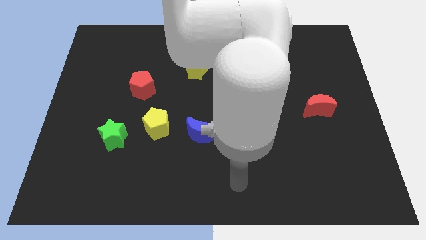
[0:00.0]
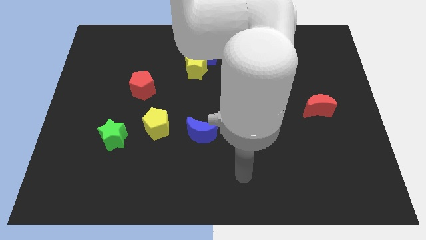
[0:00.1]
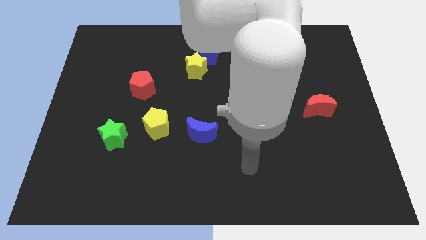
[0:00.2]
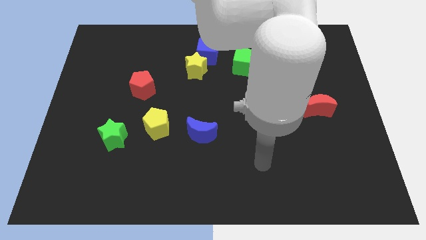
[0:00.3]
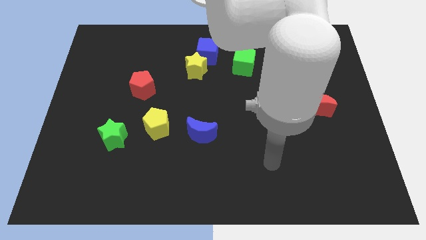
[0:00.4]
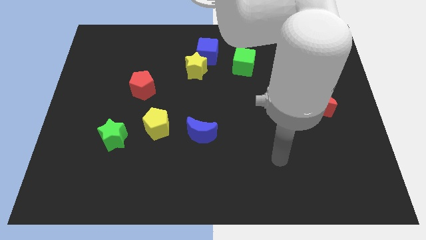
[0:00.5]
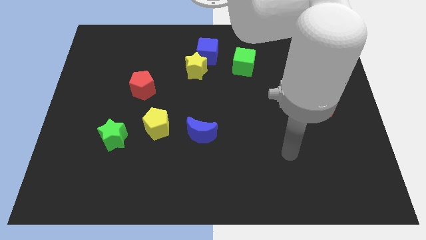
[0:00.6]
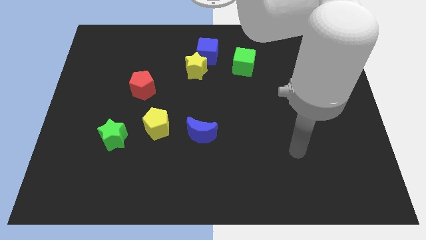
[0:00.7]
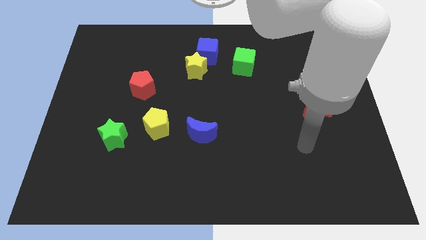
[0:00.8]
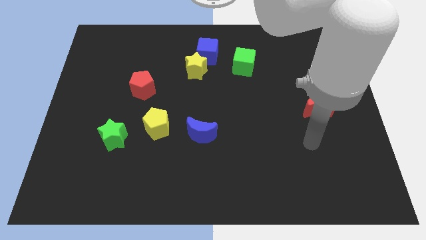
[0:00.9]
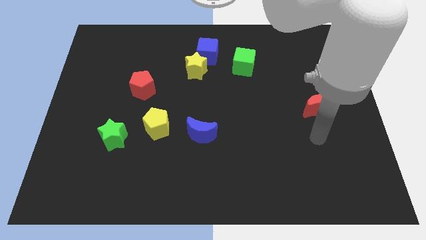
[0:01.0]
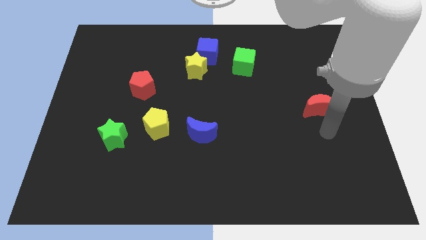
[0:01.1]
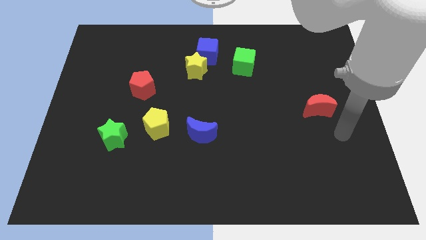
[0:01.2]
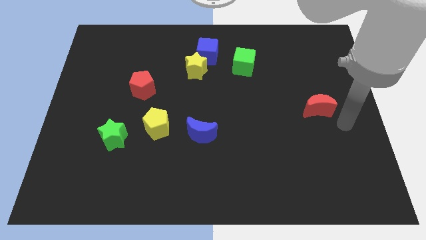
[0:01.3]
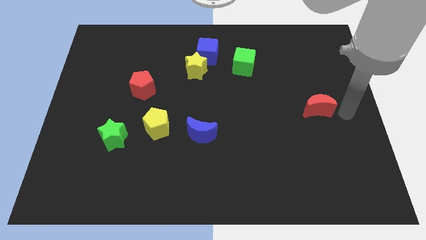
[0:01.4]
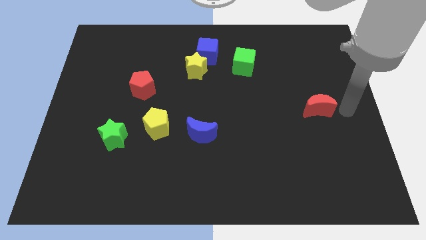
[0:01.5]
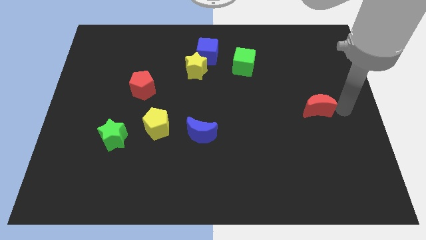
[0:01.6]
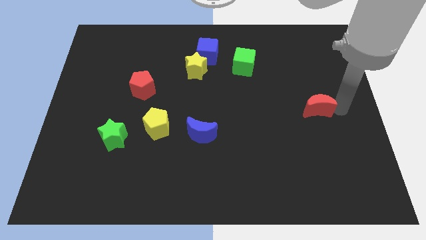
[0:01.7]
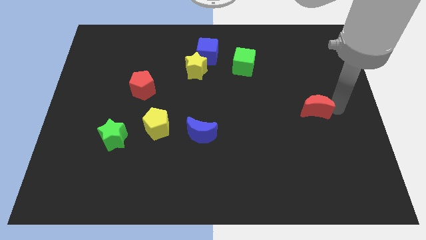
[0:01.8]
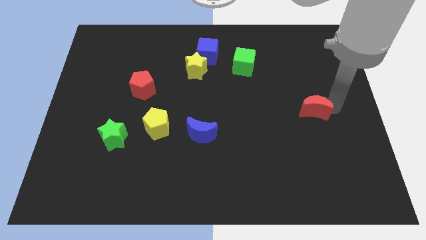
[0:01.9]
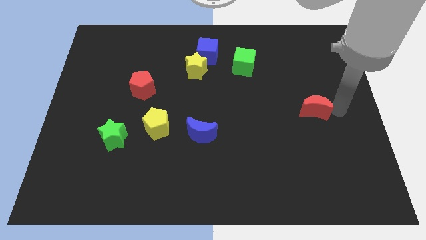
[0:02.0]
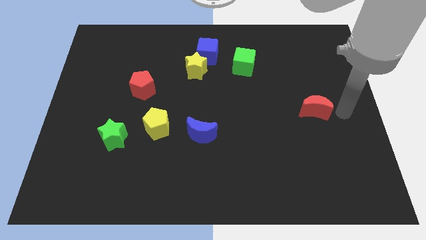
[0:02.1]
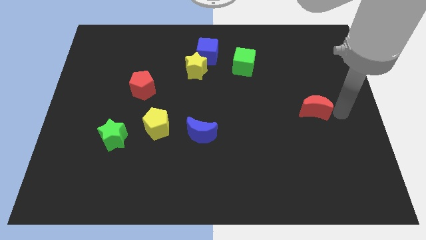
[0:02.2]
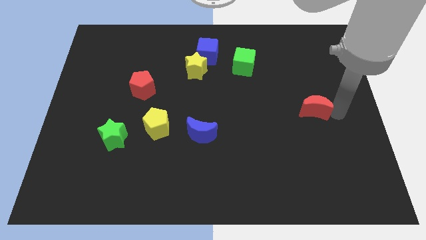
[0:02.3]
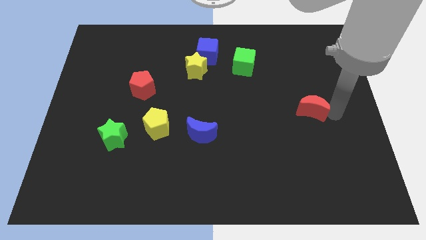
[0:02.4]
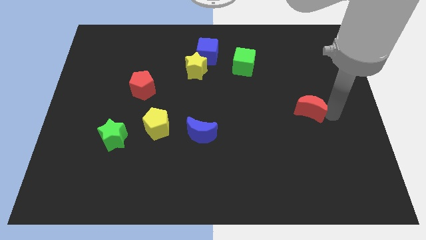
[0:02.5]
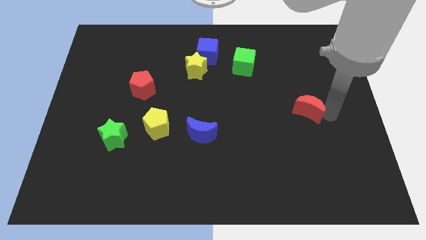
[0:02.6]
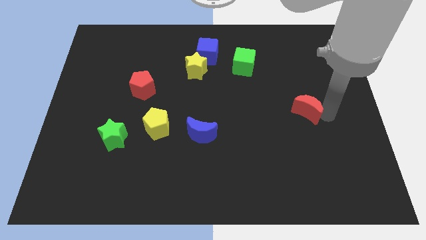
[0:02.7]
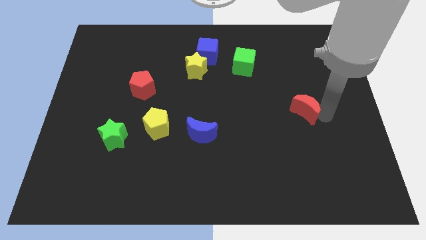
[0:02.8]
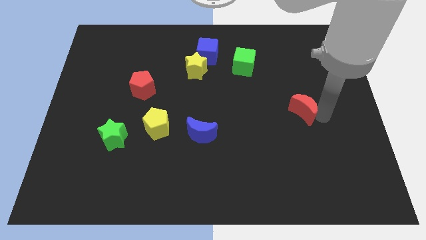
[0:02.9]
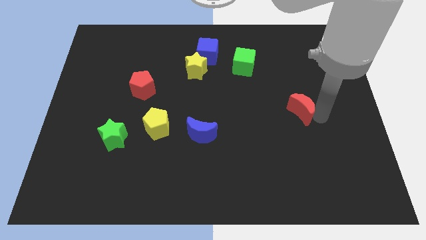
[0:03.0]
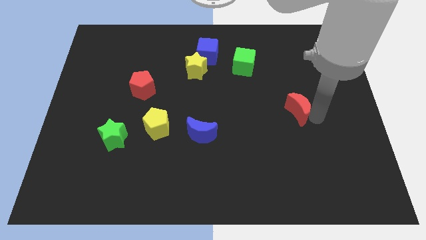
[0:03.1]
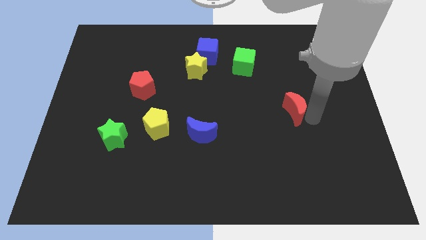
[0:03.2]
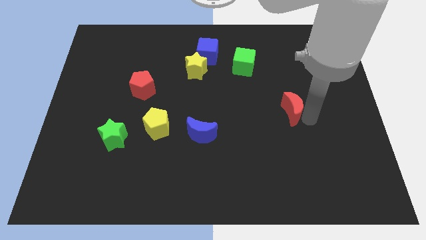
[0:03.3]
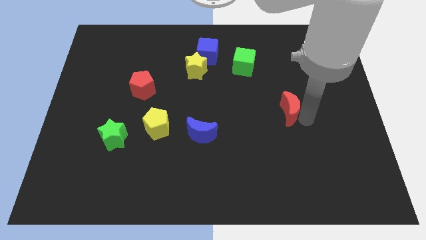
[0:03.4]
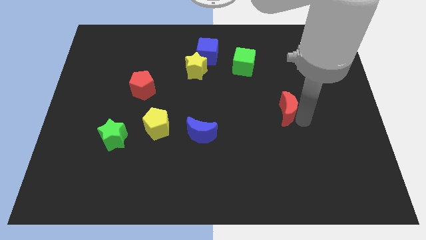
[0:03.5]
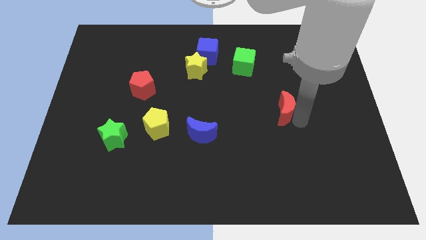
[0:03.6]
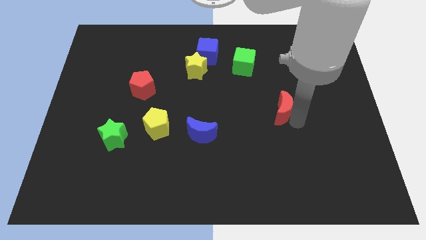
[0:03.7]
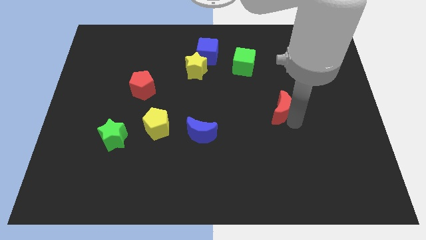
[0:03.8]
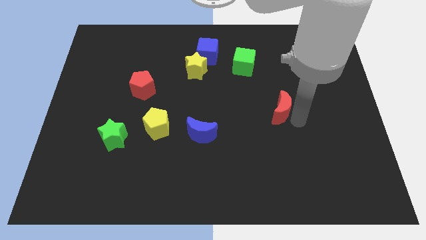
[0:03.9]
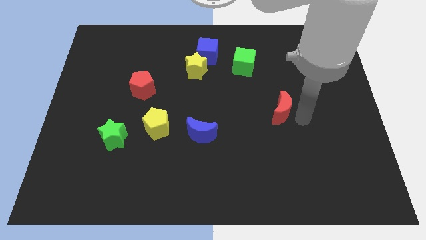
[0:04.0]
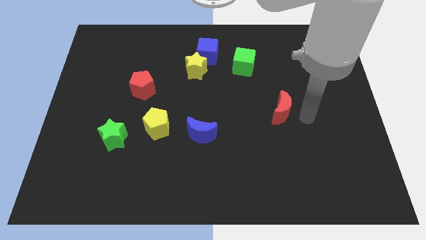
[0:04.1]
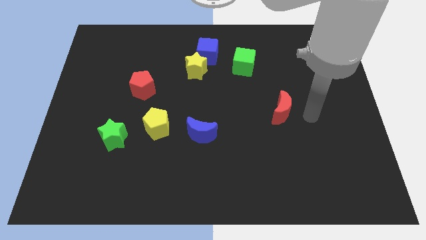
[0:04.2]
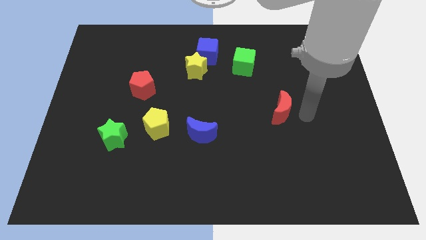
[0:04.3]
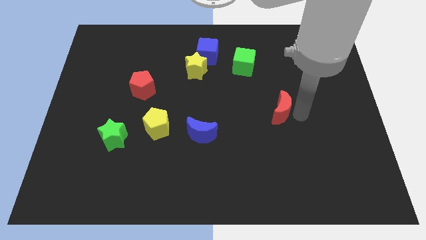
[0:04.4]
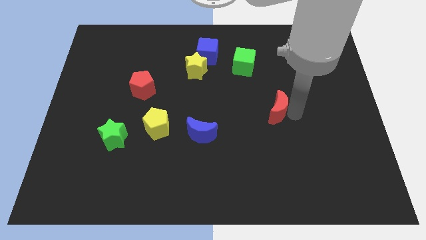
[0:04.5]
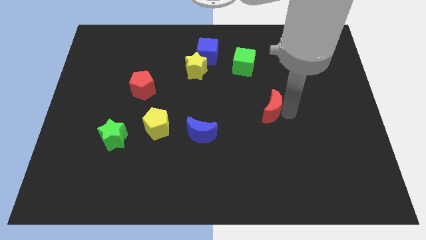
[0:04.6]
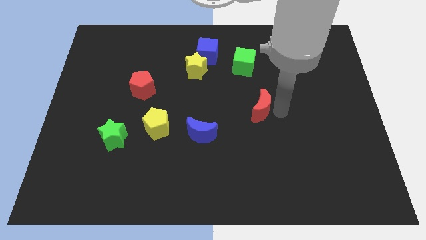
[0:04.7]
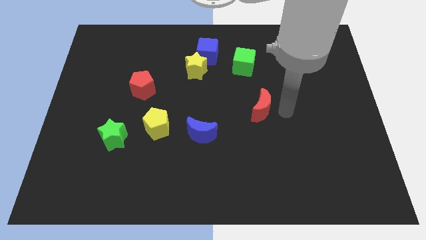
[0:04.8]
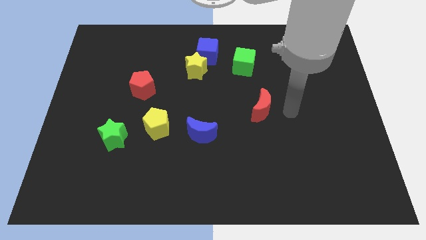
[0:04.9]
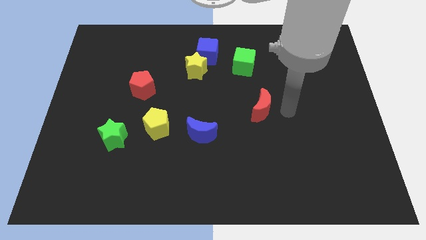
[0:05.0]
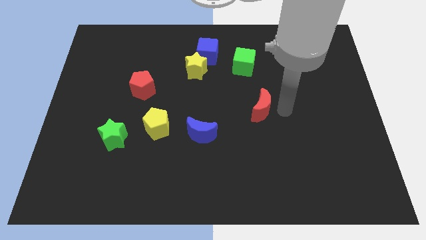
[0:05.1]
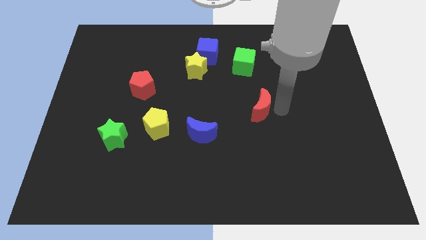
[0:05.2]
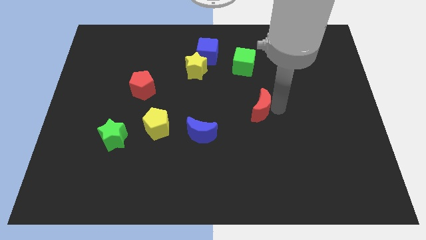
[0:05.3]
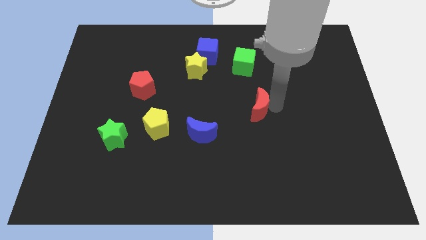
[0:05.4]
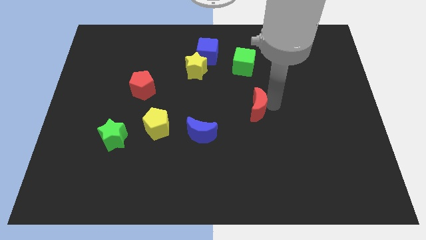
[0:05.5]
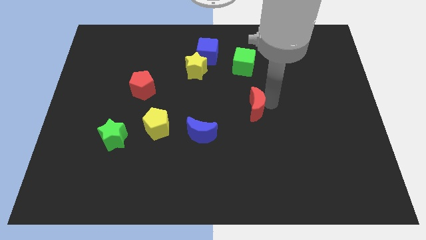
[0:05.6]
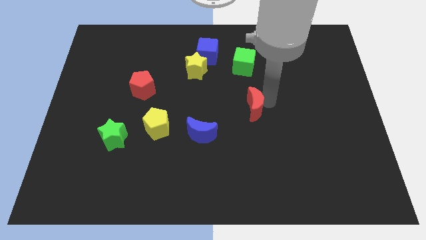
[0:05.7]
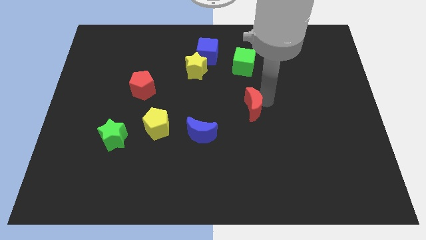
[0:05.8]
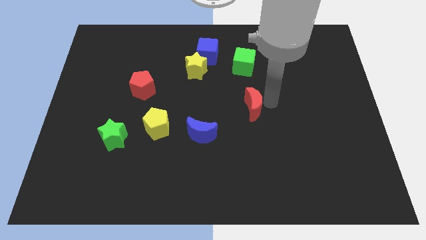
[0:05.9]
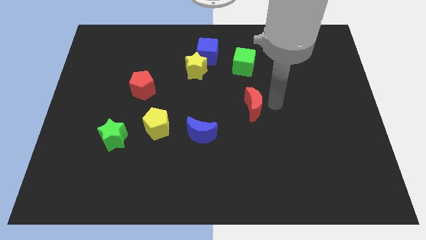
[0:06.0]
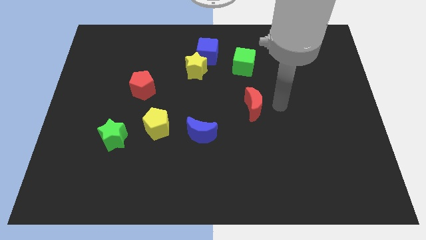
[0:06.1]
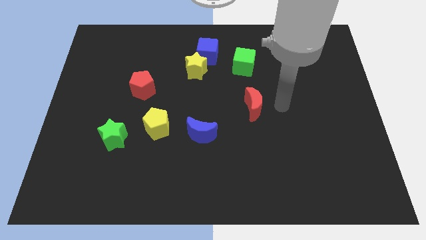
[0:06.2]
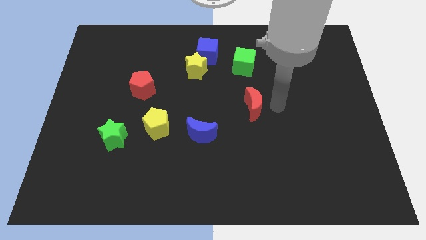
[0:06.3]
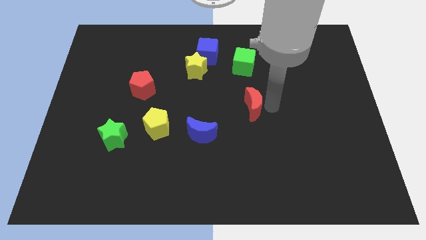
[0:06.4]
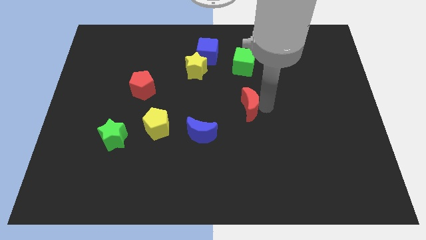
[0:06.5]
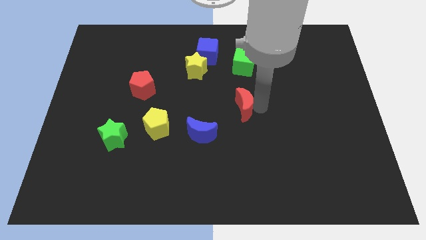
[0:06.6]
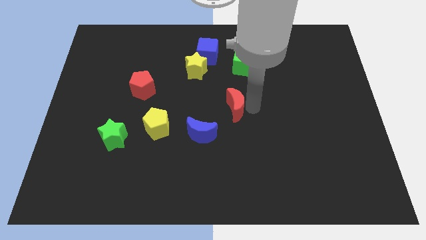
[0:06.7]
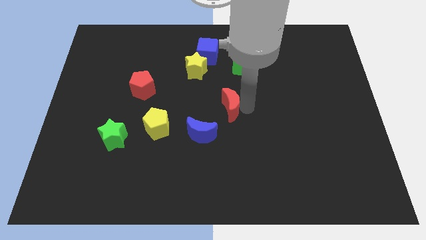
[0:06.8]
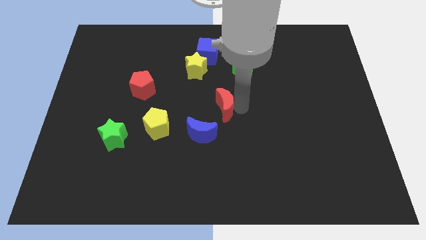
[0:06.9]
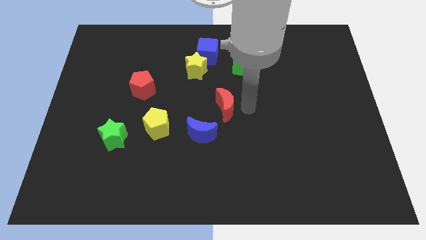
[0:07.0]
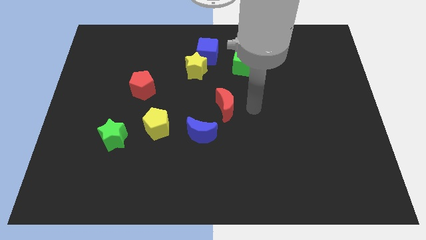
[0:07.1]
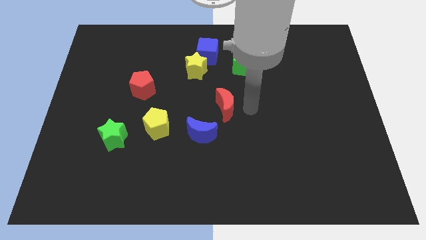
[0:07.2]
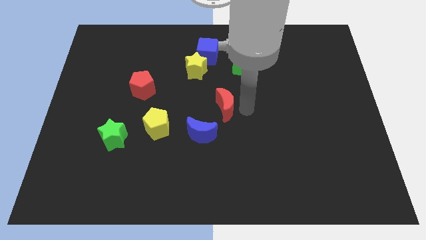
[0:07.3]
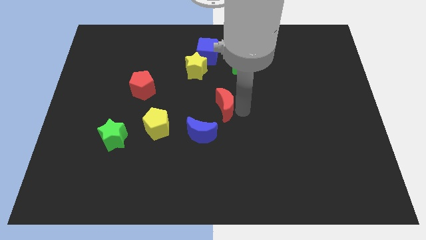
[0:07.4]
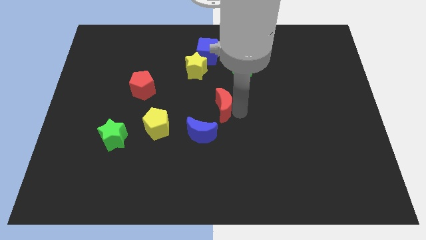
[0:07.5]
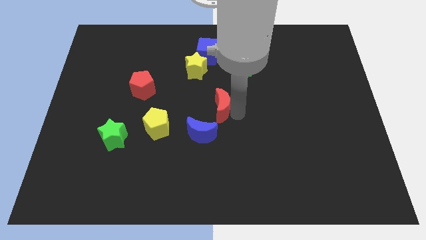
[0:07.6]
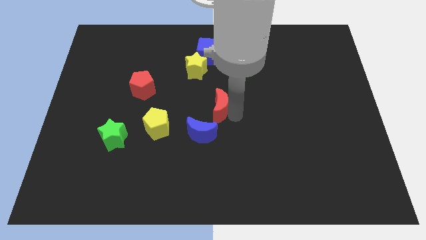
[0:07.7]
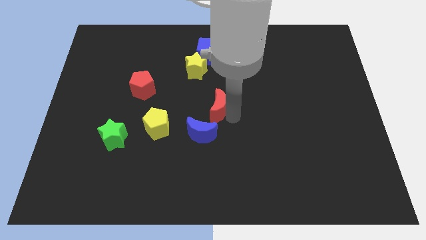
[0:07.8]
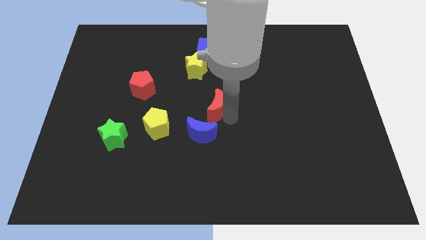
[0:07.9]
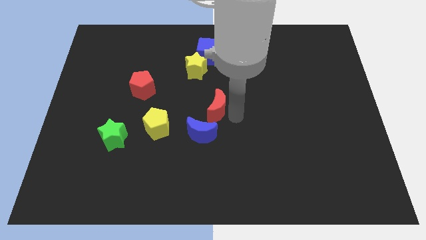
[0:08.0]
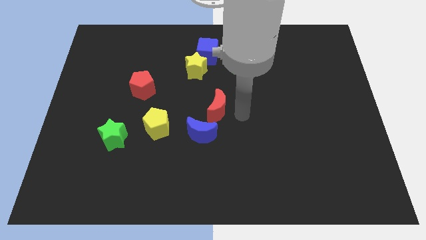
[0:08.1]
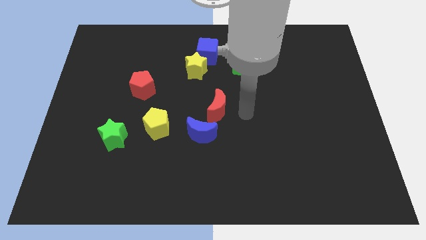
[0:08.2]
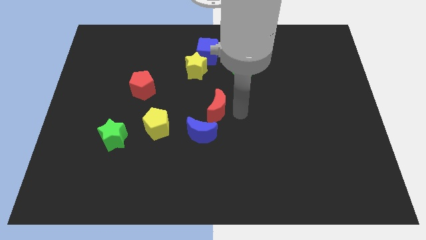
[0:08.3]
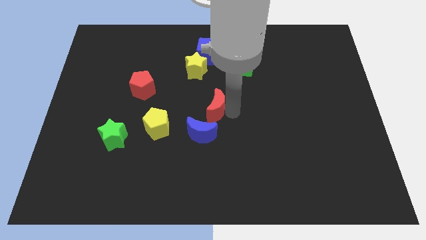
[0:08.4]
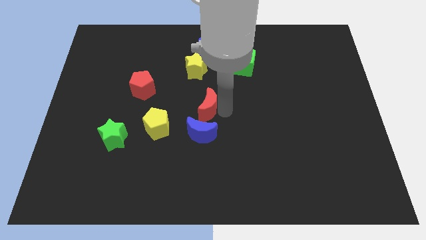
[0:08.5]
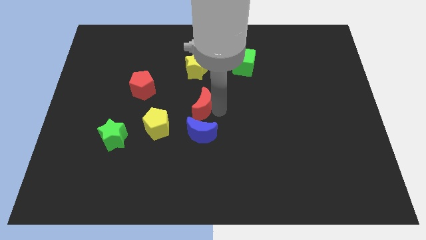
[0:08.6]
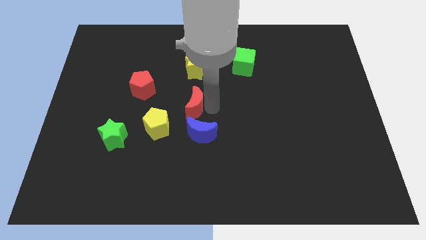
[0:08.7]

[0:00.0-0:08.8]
slide the red moon to the top left side of the blue moon
